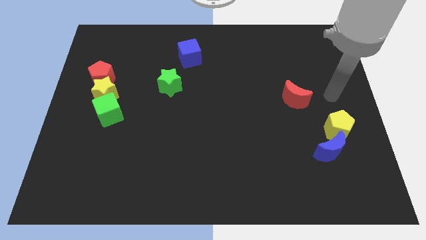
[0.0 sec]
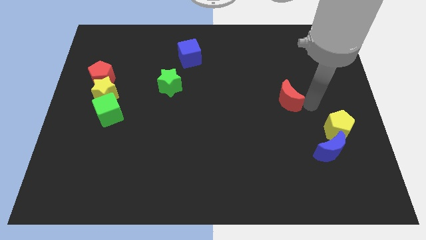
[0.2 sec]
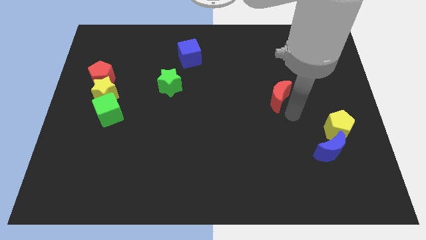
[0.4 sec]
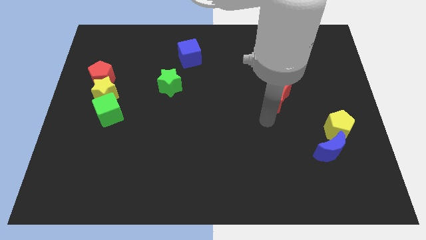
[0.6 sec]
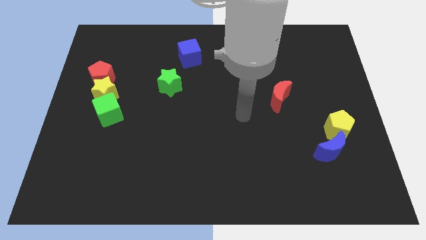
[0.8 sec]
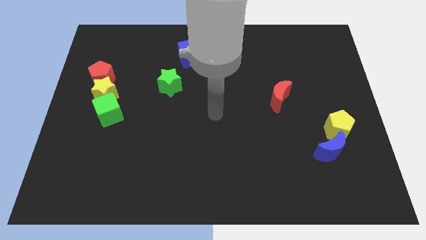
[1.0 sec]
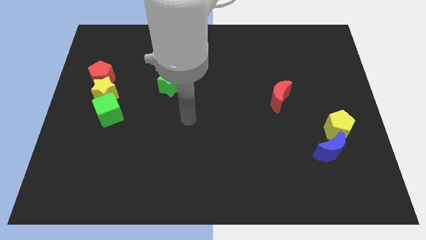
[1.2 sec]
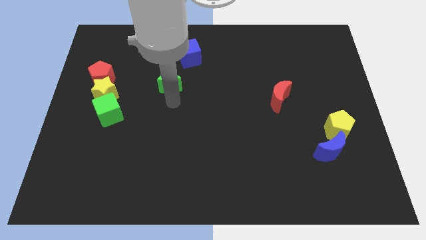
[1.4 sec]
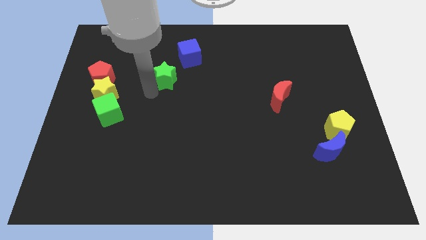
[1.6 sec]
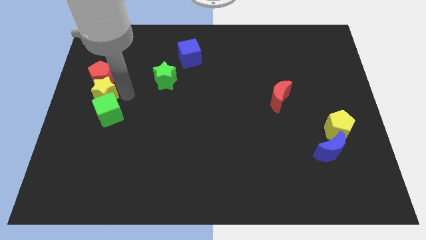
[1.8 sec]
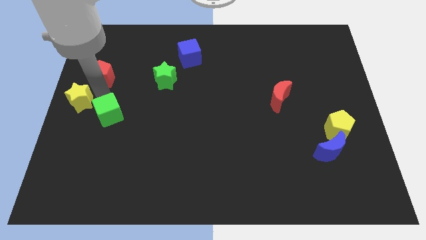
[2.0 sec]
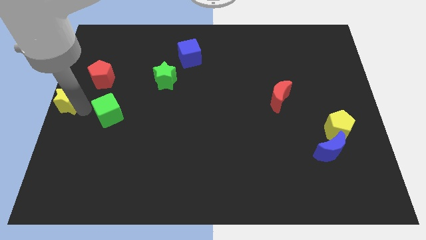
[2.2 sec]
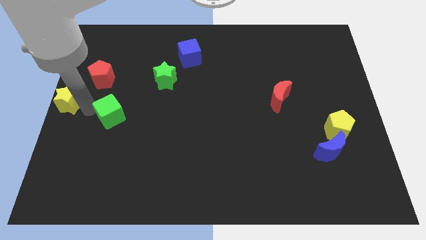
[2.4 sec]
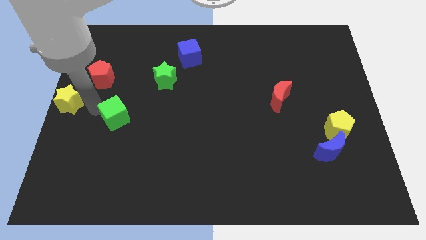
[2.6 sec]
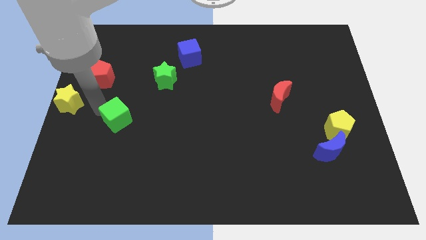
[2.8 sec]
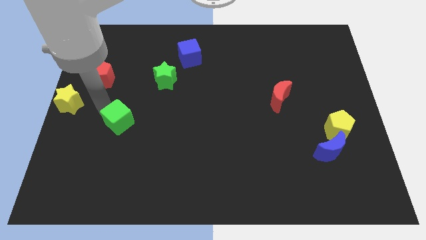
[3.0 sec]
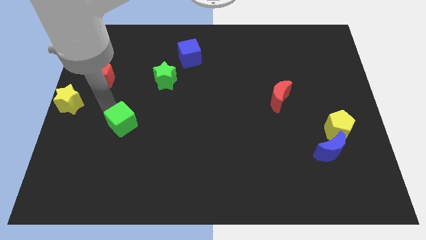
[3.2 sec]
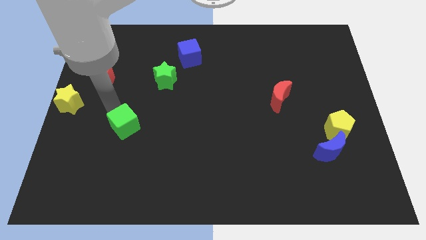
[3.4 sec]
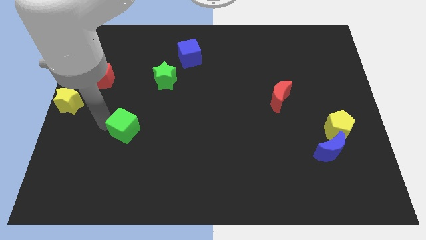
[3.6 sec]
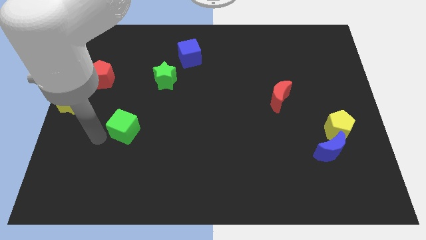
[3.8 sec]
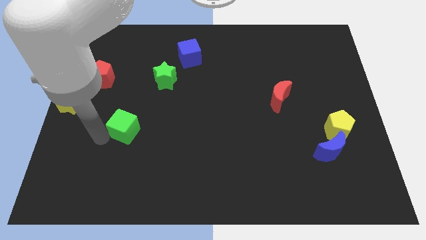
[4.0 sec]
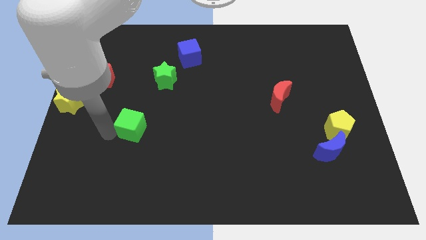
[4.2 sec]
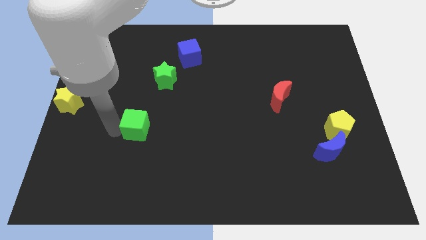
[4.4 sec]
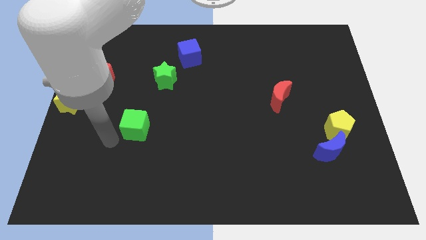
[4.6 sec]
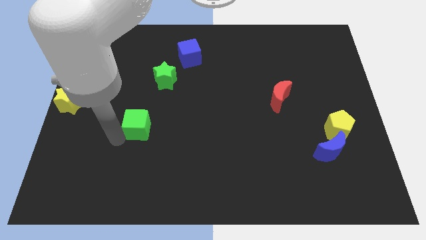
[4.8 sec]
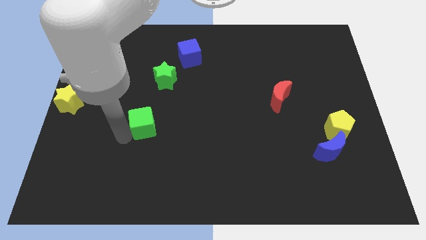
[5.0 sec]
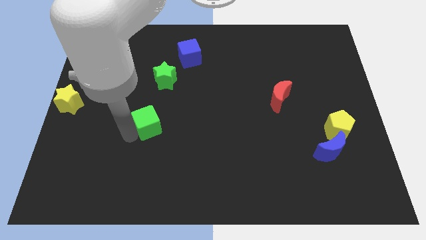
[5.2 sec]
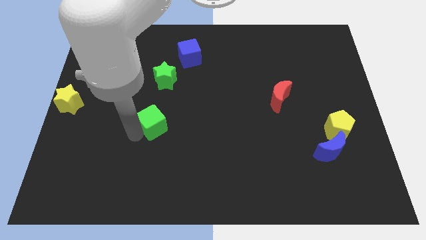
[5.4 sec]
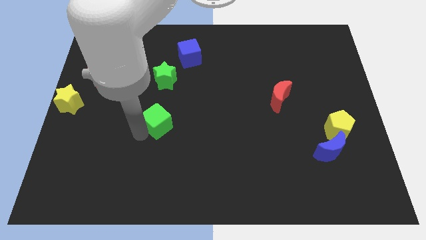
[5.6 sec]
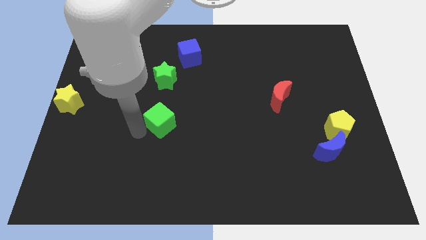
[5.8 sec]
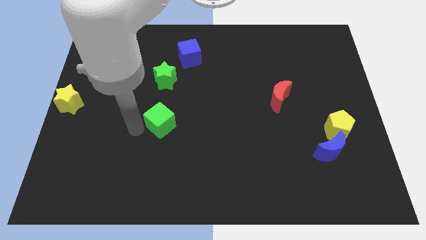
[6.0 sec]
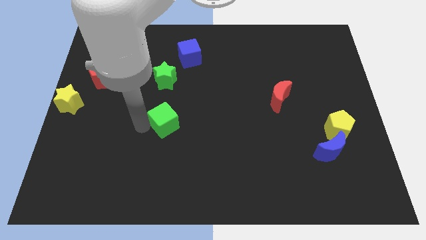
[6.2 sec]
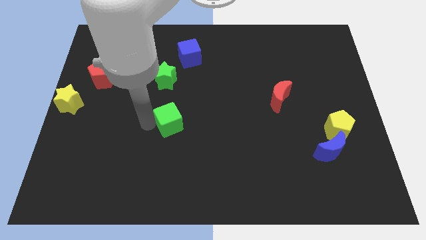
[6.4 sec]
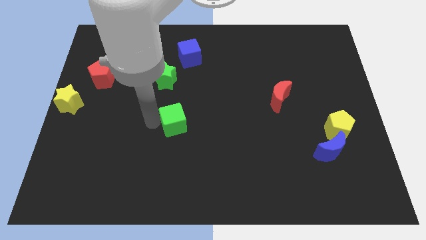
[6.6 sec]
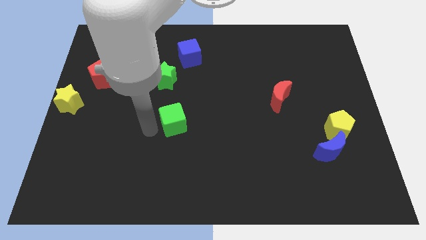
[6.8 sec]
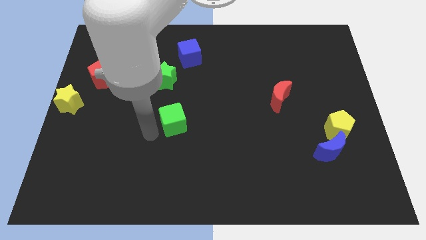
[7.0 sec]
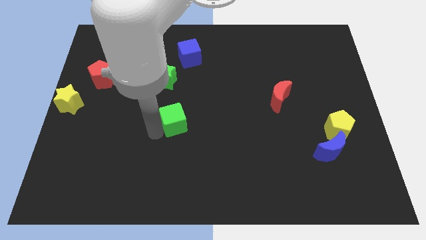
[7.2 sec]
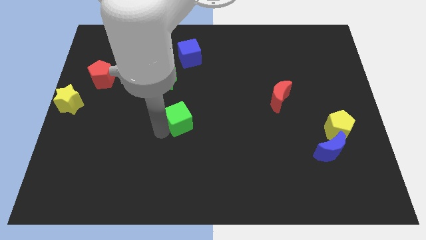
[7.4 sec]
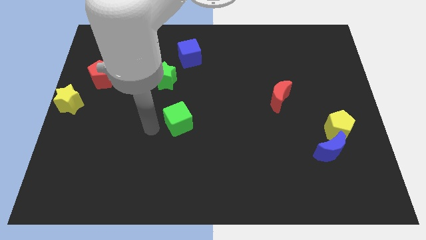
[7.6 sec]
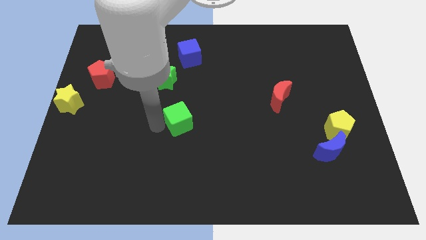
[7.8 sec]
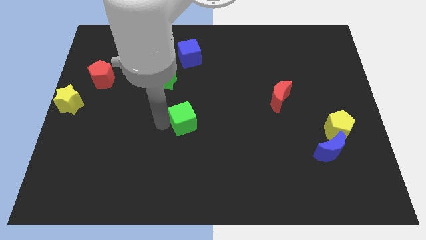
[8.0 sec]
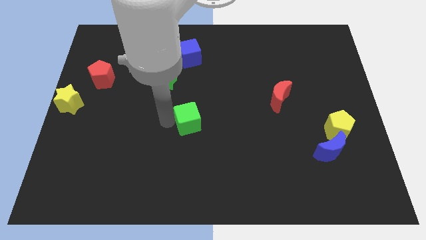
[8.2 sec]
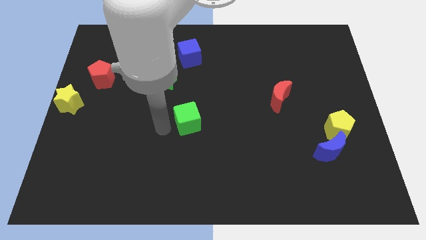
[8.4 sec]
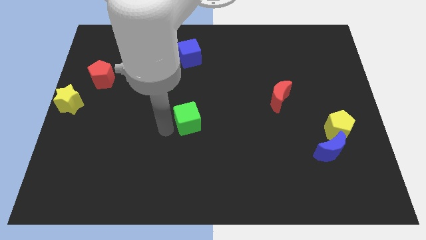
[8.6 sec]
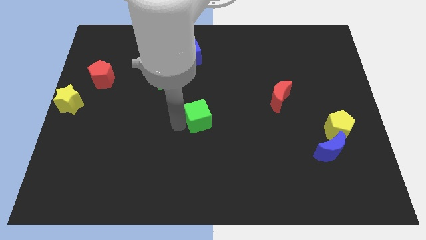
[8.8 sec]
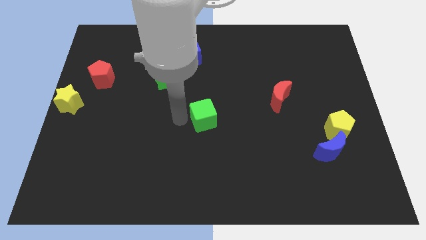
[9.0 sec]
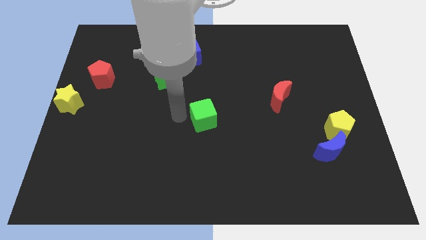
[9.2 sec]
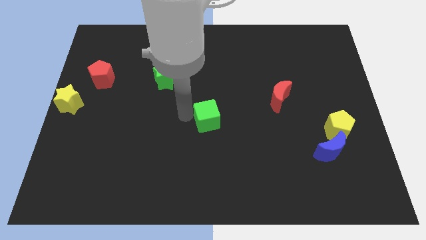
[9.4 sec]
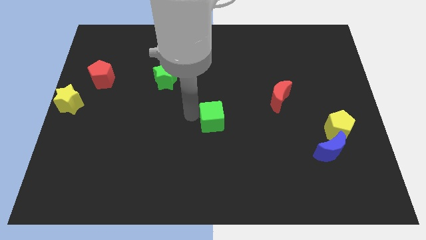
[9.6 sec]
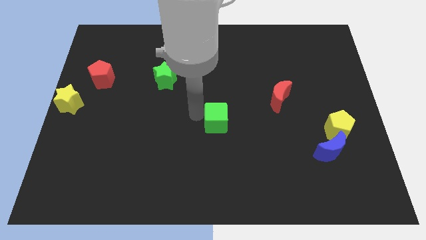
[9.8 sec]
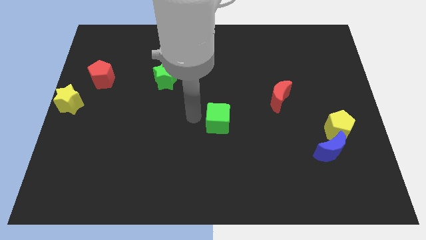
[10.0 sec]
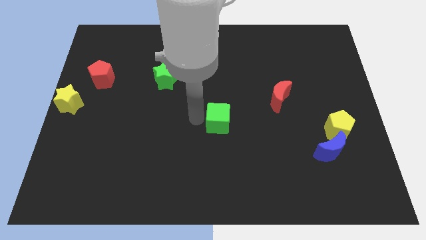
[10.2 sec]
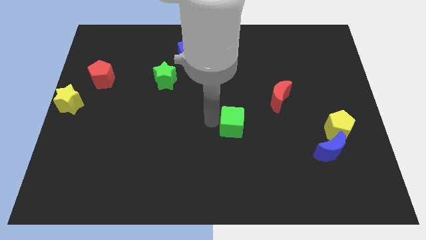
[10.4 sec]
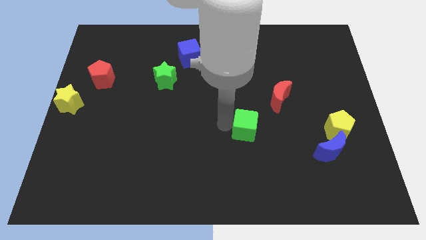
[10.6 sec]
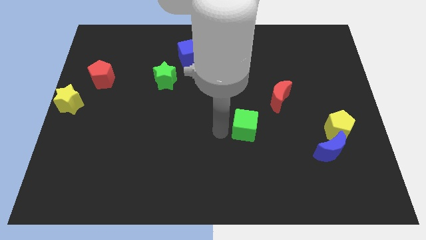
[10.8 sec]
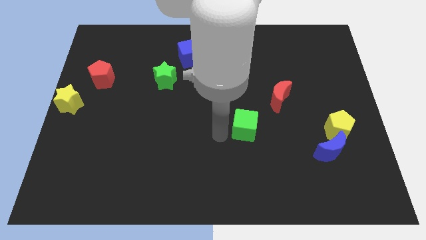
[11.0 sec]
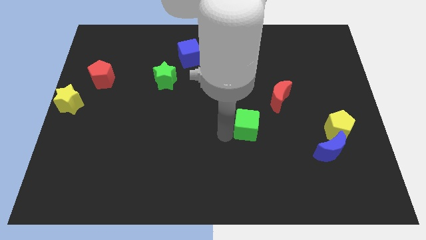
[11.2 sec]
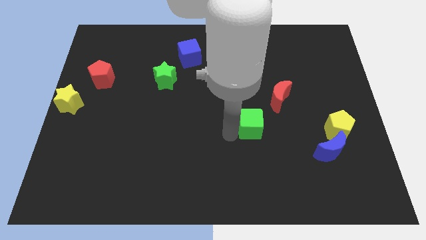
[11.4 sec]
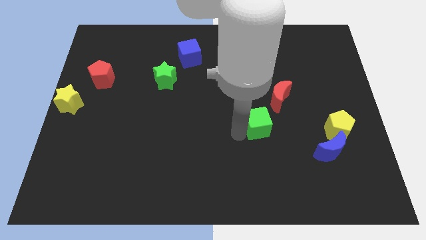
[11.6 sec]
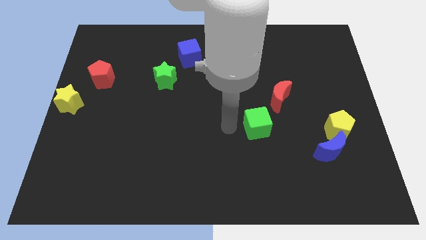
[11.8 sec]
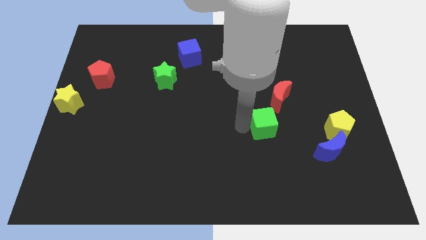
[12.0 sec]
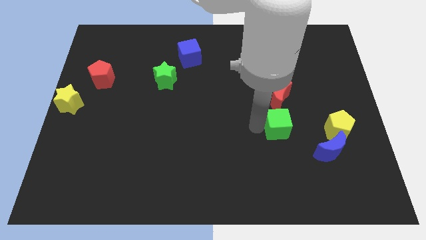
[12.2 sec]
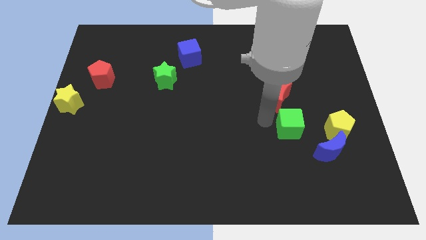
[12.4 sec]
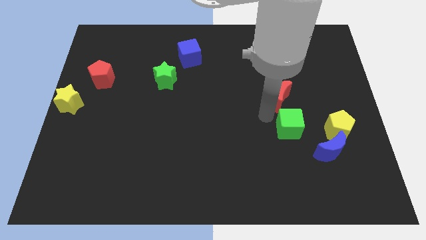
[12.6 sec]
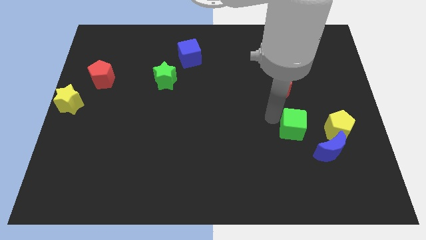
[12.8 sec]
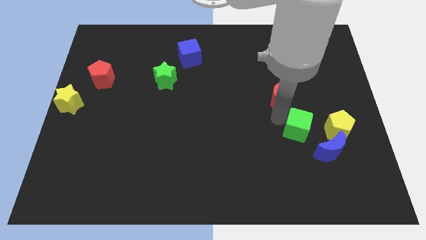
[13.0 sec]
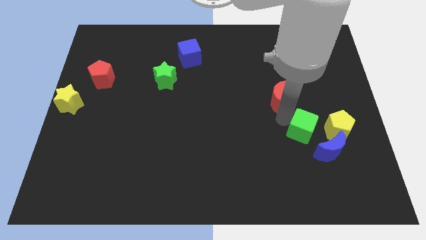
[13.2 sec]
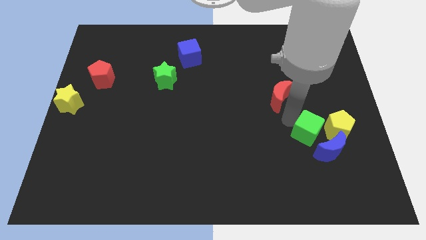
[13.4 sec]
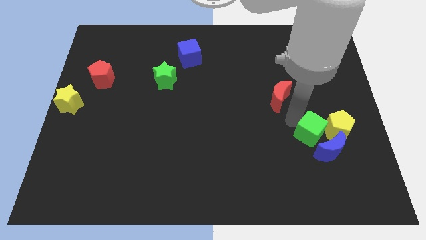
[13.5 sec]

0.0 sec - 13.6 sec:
move the green cube close to the blue moon
